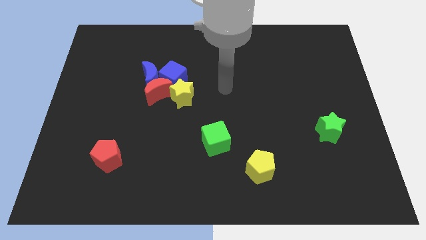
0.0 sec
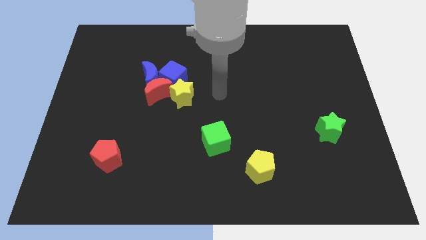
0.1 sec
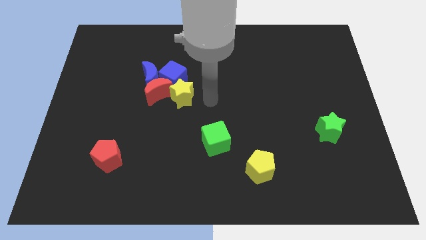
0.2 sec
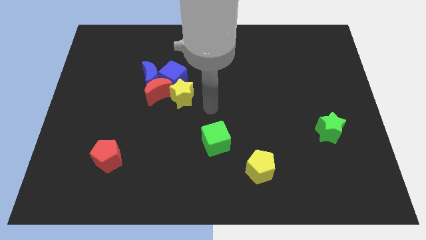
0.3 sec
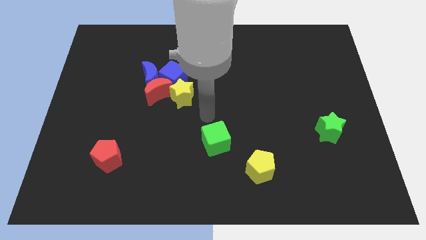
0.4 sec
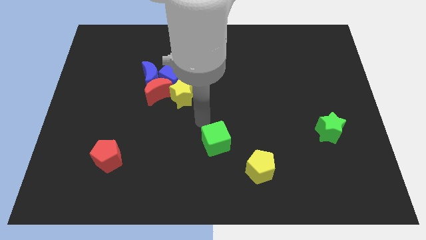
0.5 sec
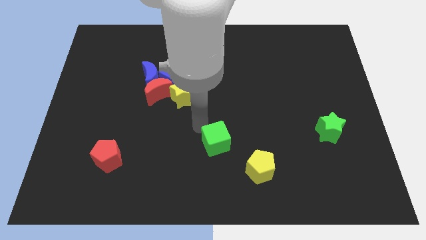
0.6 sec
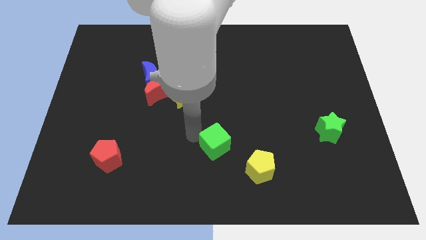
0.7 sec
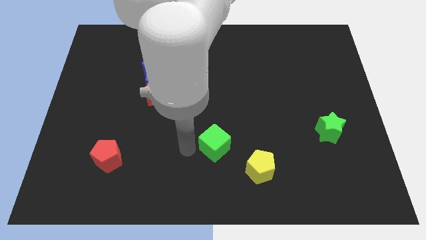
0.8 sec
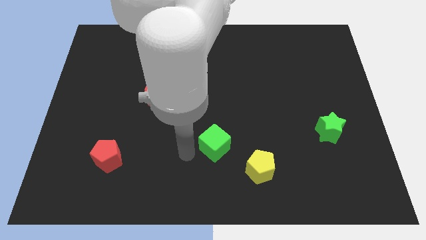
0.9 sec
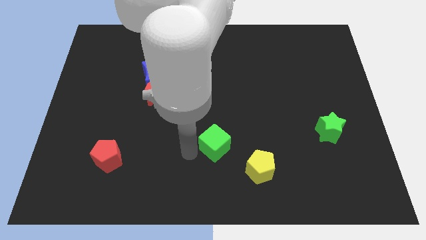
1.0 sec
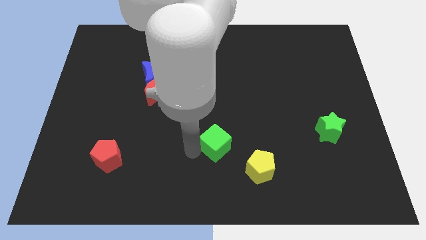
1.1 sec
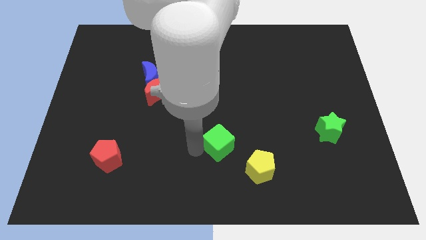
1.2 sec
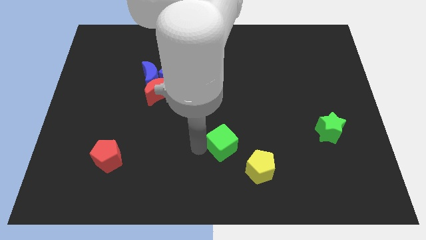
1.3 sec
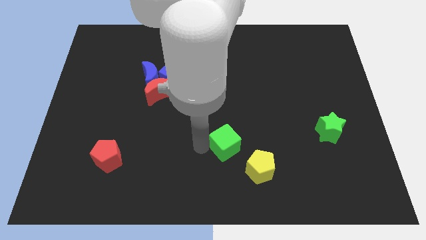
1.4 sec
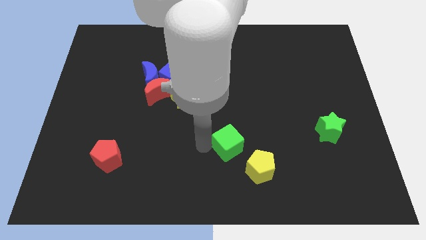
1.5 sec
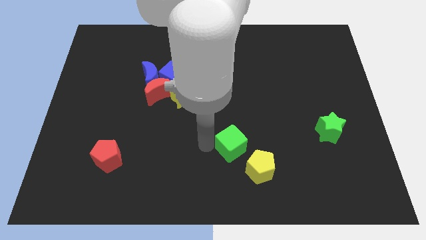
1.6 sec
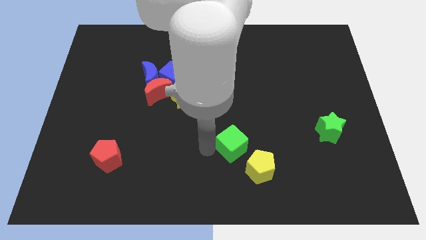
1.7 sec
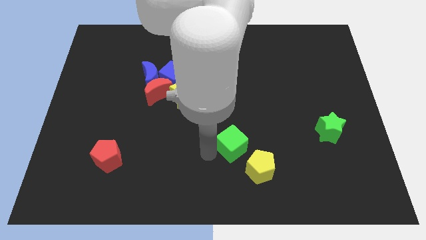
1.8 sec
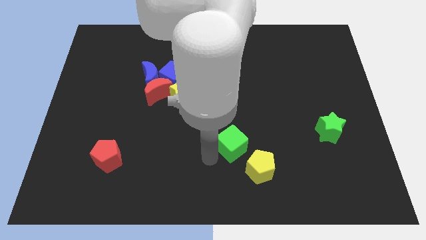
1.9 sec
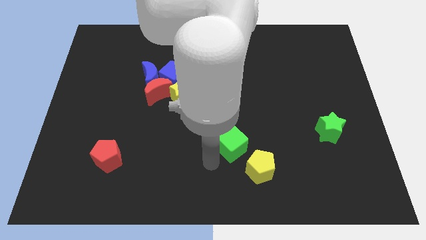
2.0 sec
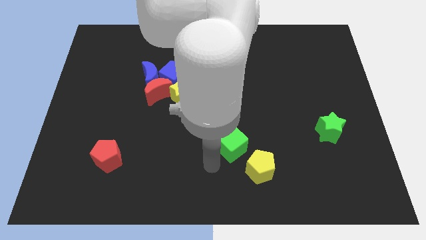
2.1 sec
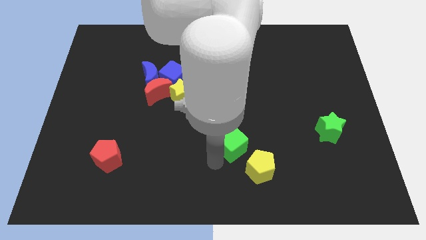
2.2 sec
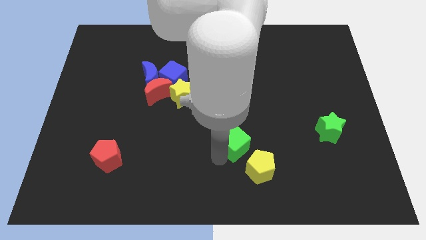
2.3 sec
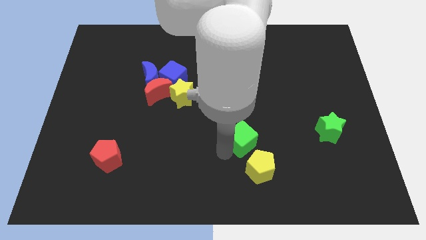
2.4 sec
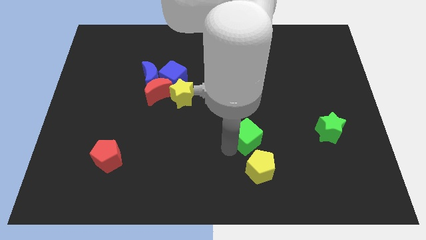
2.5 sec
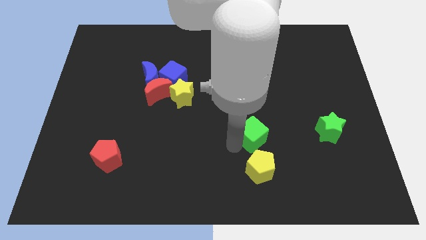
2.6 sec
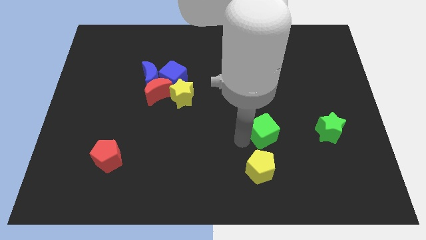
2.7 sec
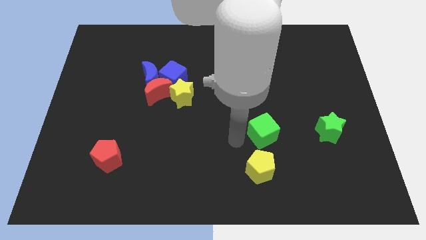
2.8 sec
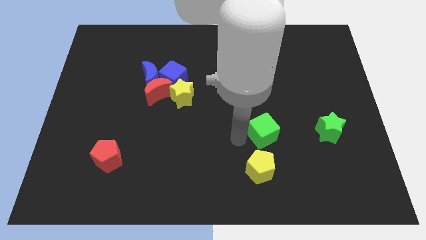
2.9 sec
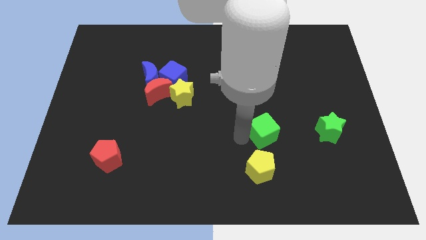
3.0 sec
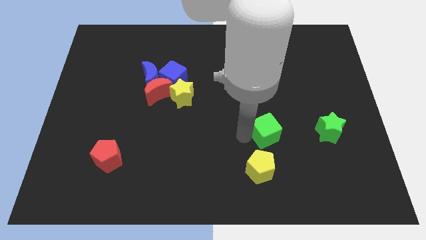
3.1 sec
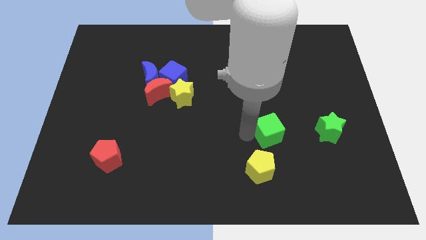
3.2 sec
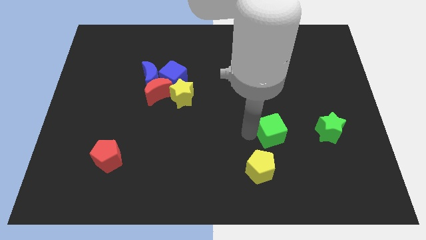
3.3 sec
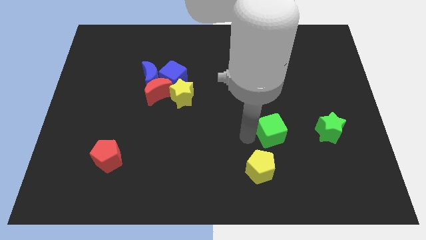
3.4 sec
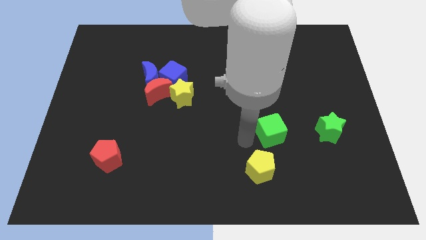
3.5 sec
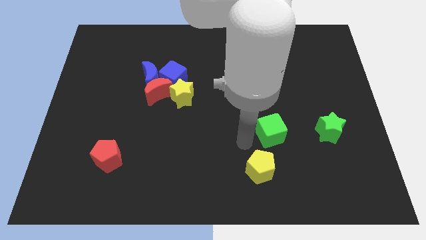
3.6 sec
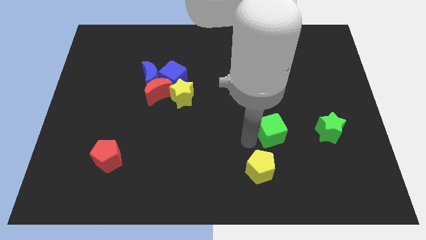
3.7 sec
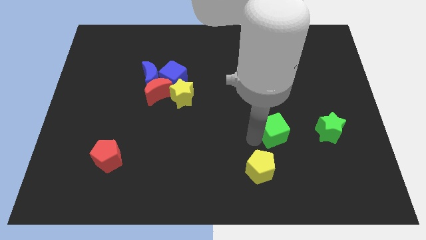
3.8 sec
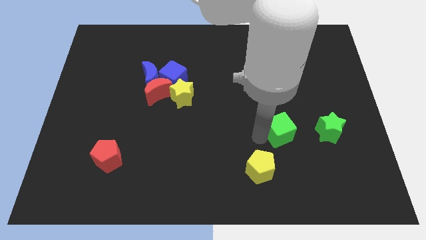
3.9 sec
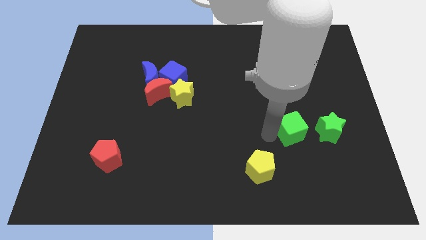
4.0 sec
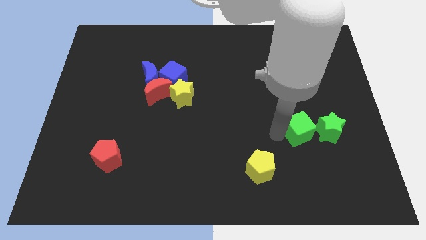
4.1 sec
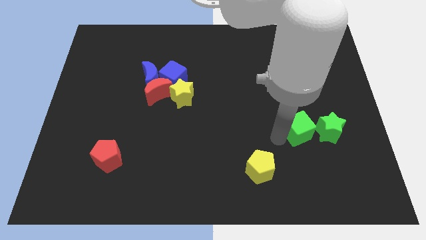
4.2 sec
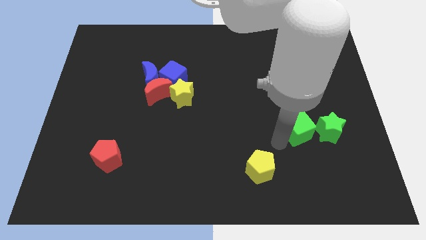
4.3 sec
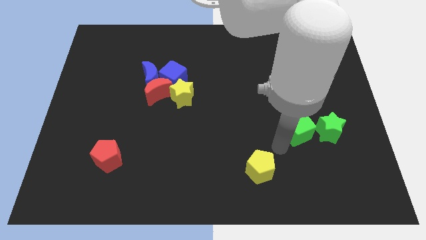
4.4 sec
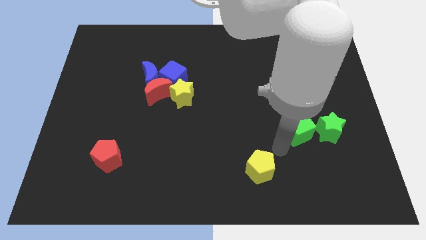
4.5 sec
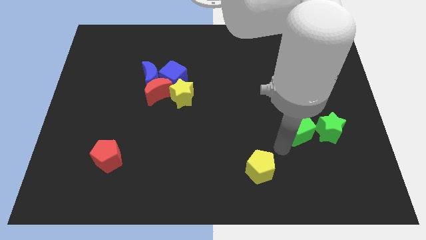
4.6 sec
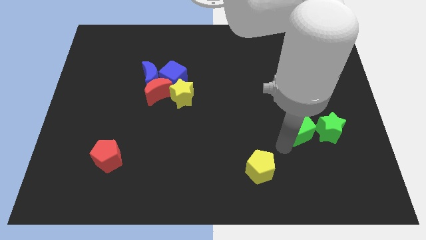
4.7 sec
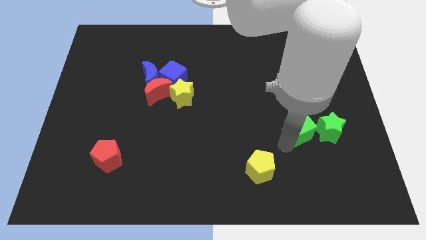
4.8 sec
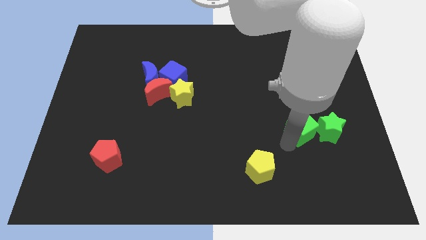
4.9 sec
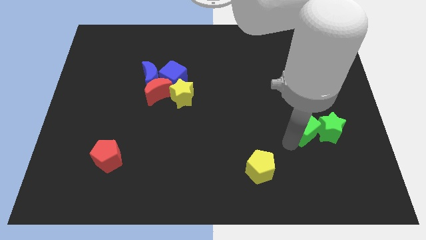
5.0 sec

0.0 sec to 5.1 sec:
put the green cube to the green star

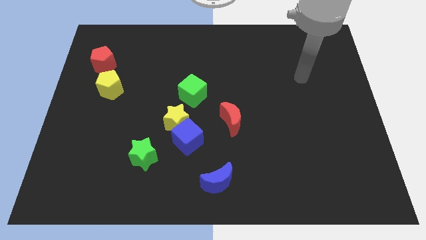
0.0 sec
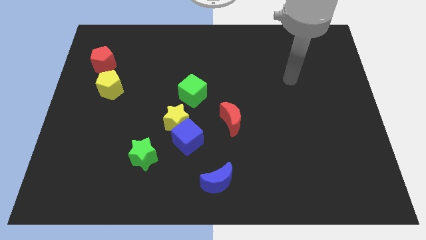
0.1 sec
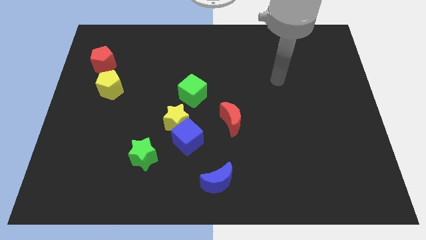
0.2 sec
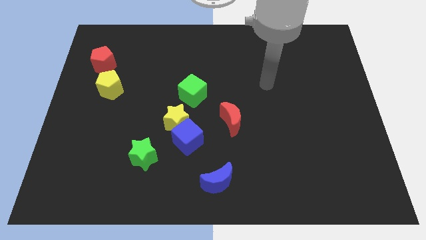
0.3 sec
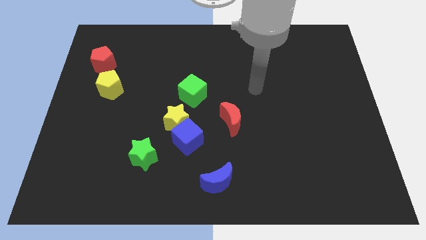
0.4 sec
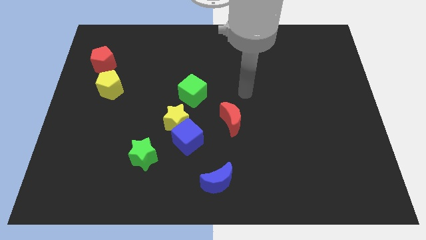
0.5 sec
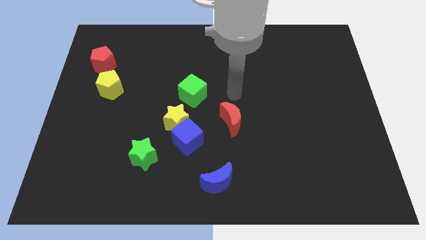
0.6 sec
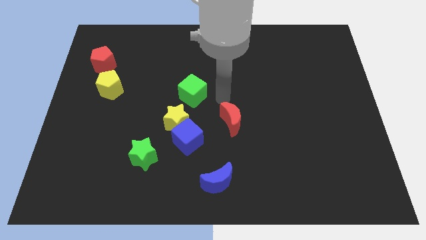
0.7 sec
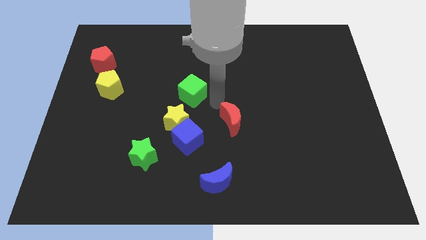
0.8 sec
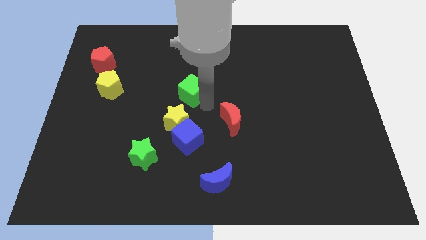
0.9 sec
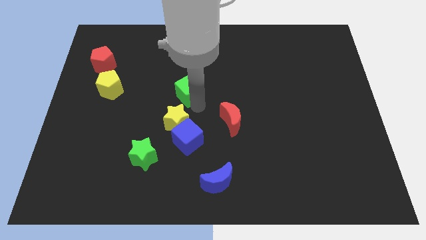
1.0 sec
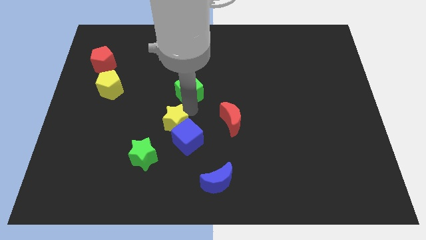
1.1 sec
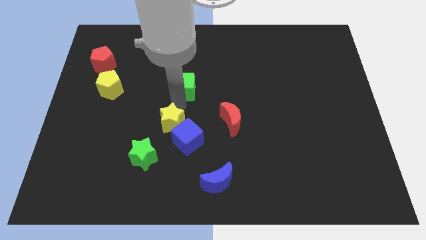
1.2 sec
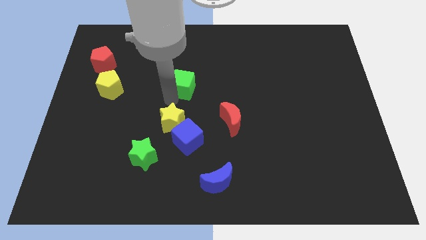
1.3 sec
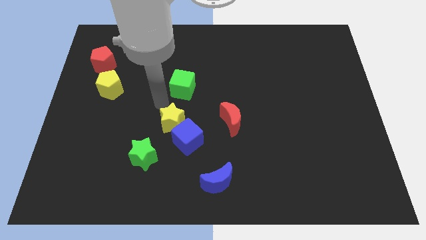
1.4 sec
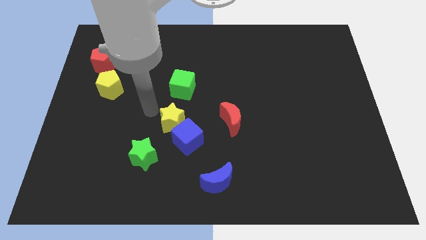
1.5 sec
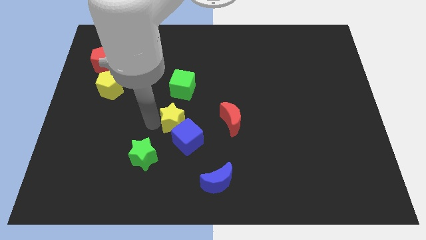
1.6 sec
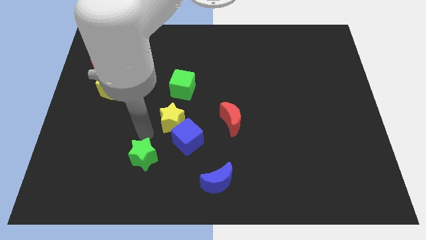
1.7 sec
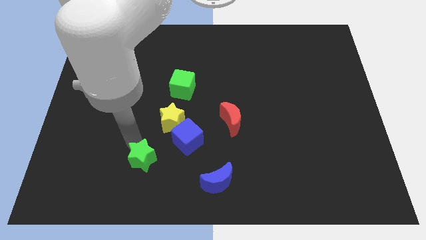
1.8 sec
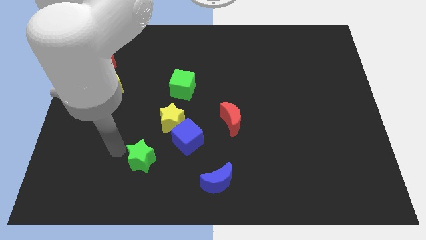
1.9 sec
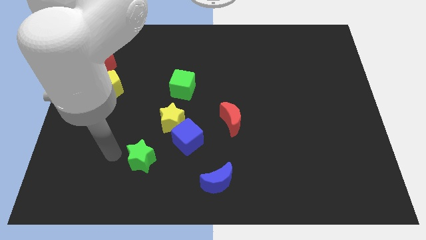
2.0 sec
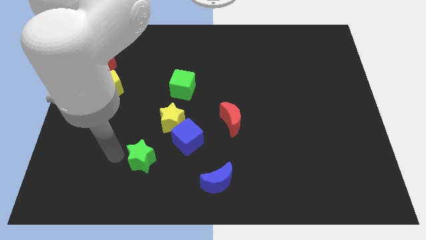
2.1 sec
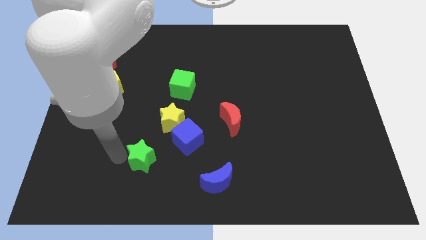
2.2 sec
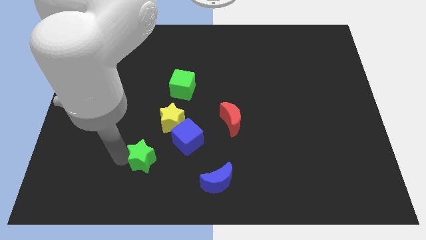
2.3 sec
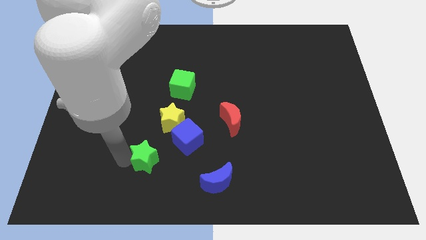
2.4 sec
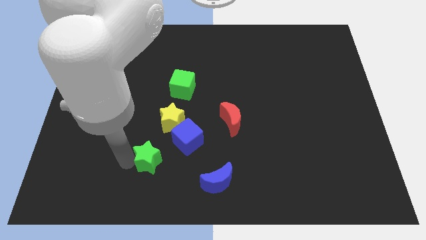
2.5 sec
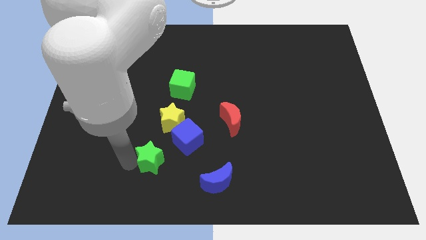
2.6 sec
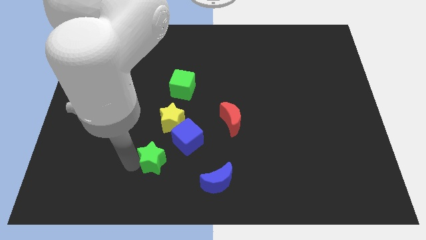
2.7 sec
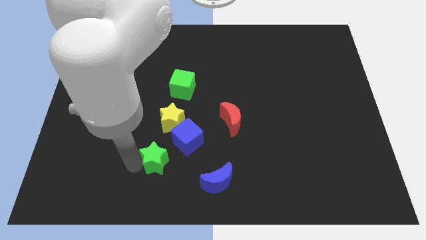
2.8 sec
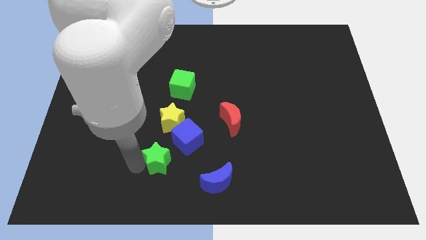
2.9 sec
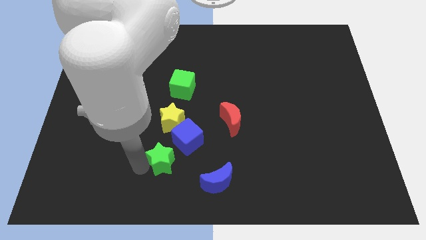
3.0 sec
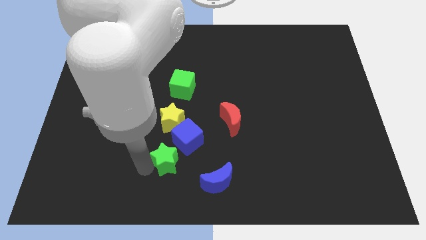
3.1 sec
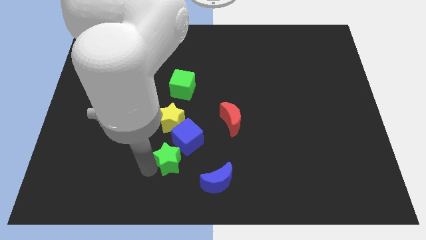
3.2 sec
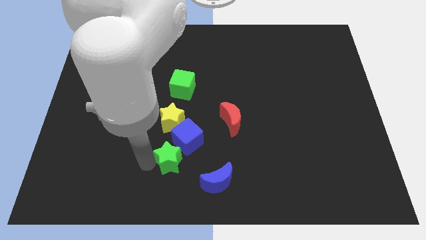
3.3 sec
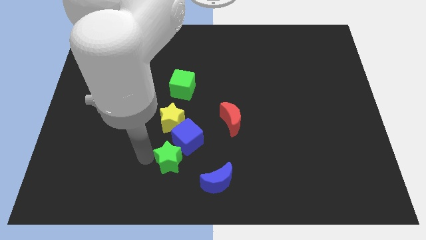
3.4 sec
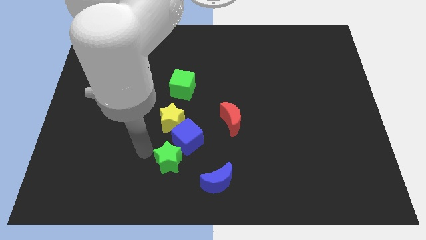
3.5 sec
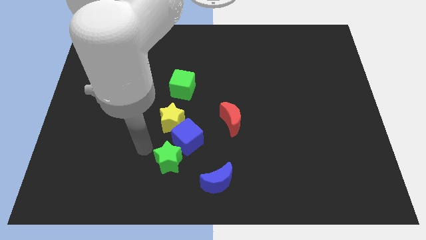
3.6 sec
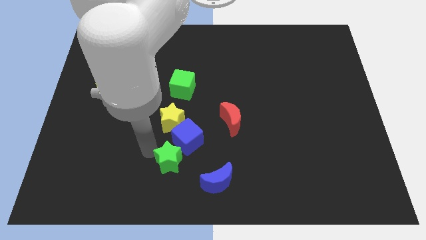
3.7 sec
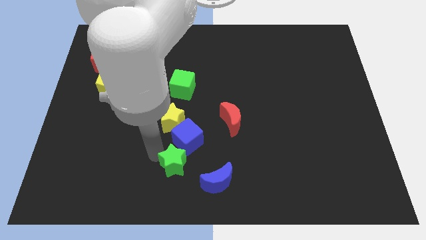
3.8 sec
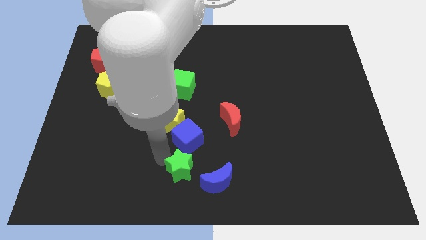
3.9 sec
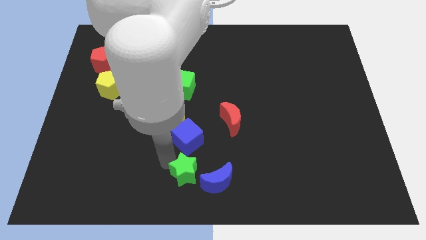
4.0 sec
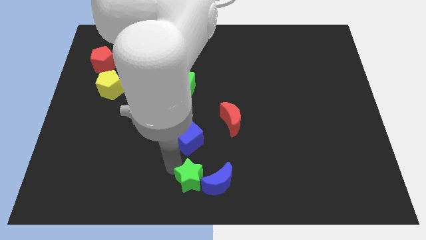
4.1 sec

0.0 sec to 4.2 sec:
put the green star close to the blue moon
